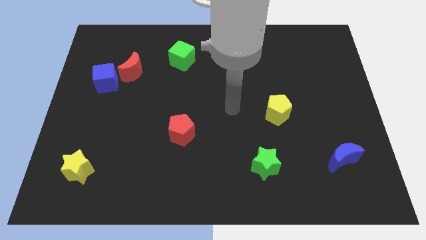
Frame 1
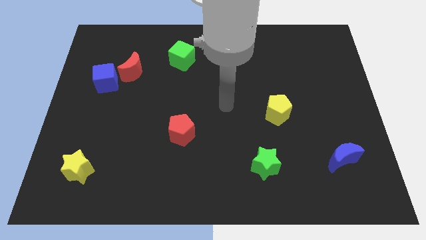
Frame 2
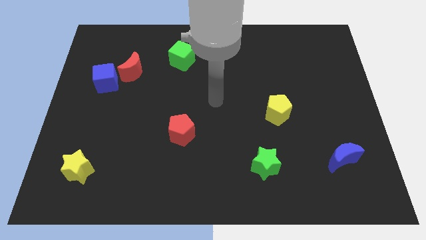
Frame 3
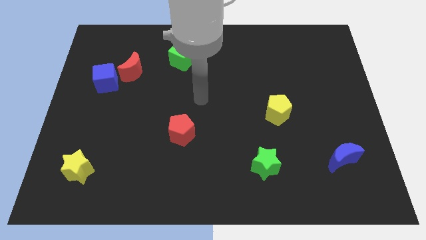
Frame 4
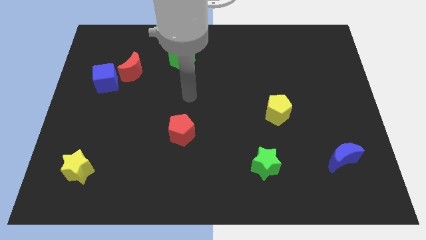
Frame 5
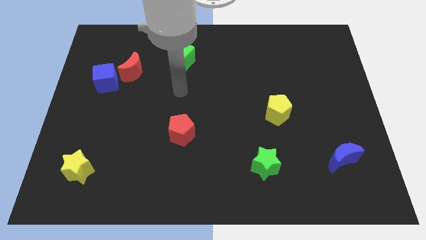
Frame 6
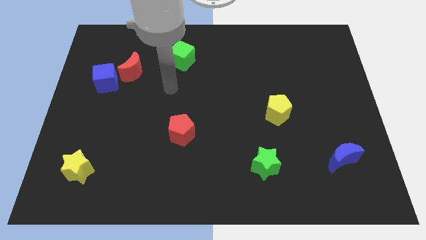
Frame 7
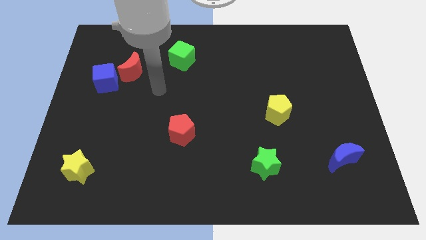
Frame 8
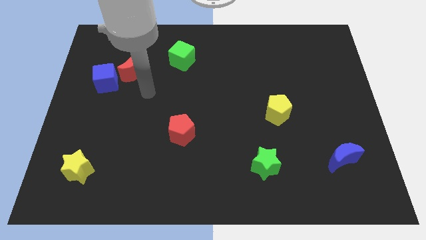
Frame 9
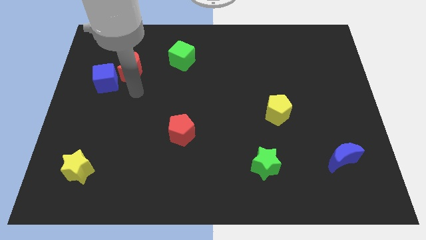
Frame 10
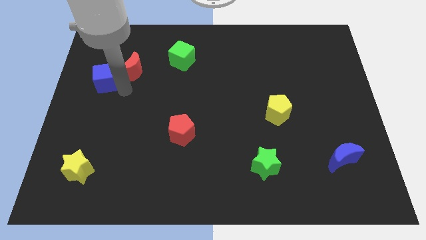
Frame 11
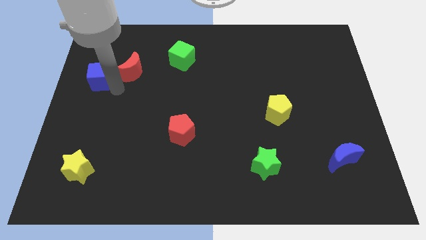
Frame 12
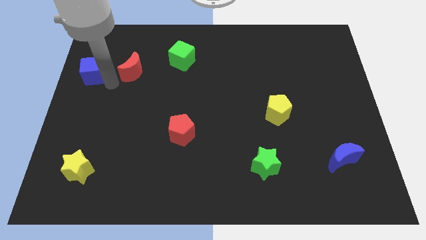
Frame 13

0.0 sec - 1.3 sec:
move the red moon away from the blue cube

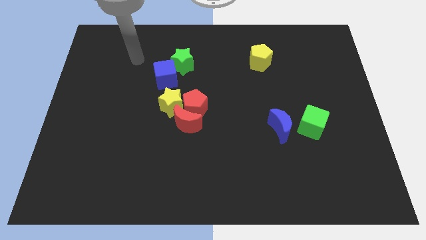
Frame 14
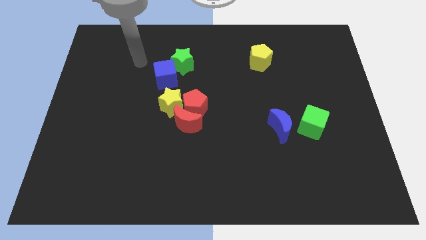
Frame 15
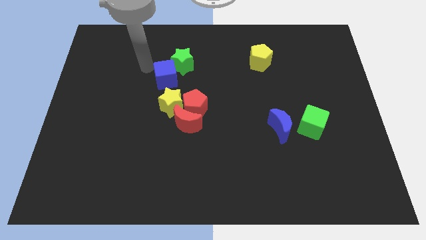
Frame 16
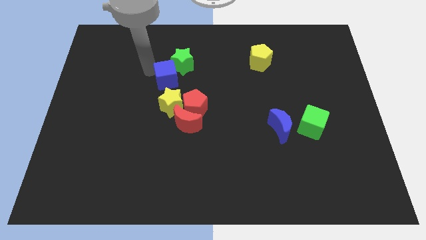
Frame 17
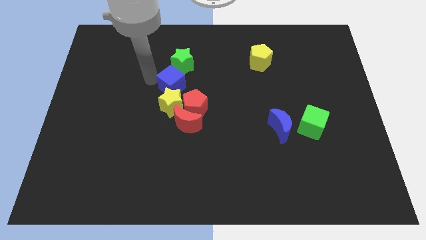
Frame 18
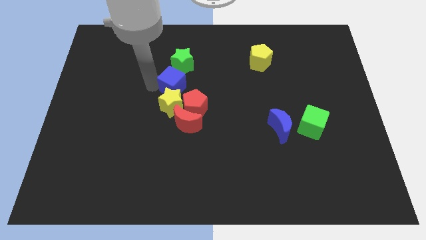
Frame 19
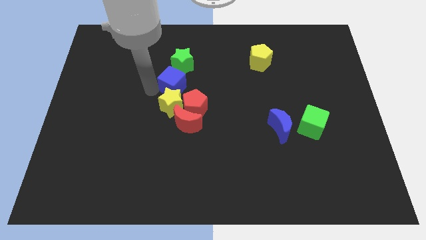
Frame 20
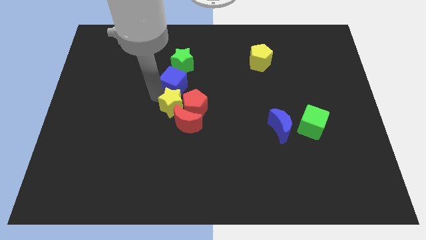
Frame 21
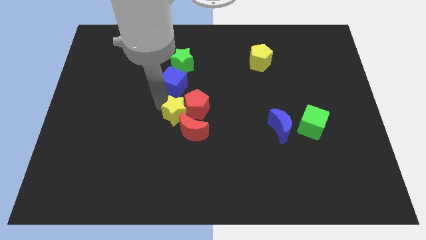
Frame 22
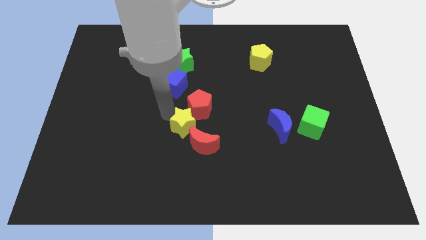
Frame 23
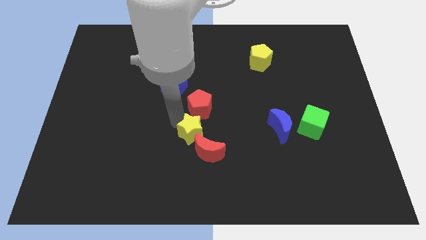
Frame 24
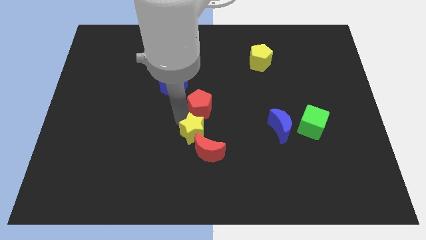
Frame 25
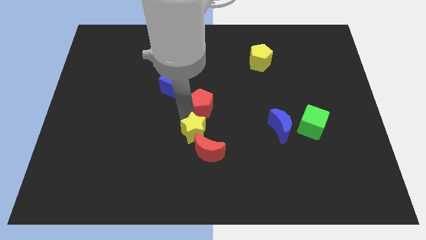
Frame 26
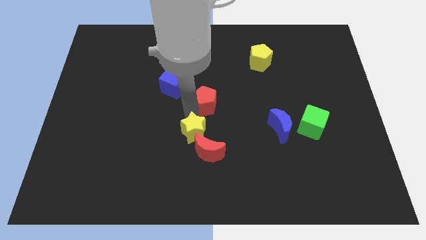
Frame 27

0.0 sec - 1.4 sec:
pull the red pentagon apart from the red moon and yellow star

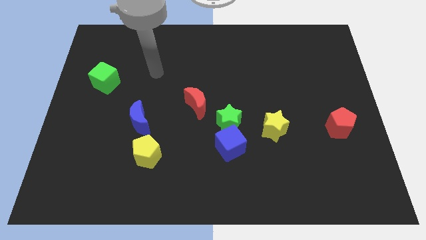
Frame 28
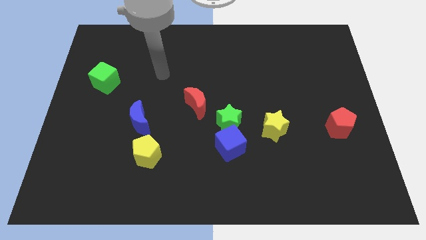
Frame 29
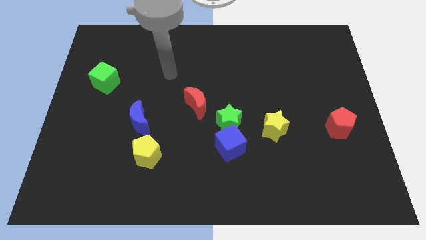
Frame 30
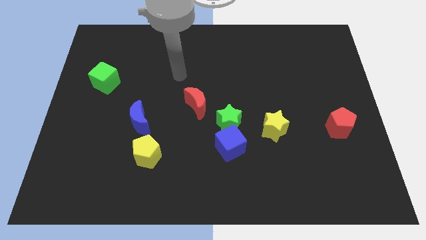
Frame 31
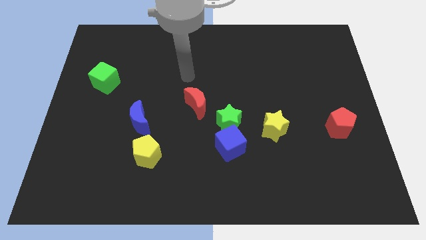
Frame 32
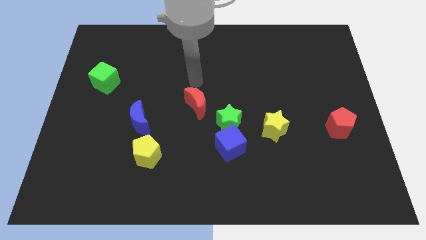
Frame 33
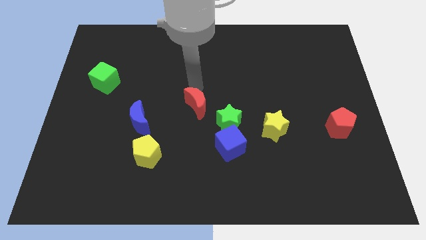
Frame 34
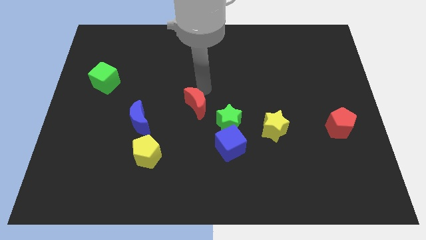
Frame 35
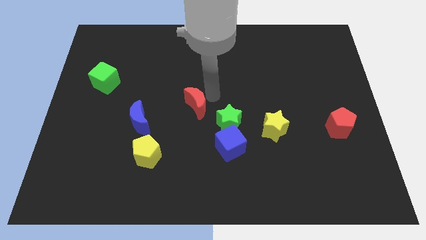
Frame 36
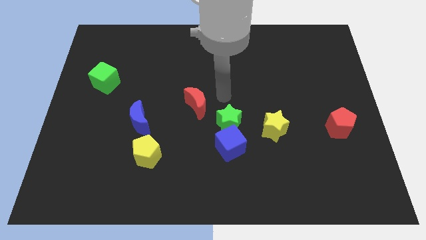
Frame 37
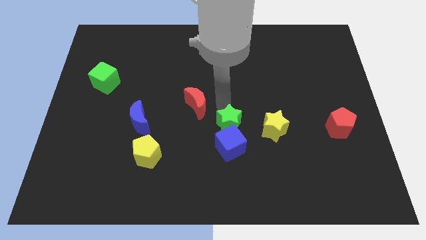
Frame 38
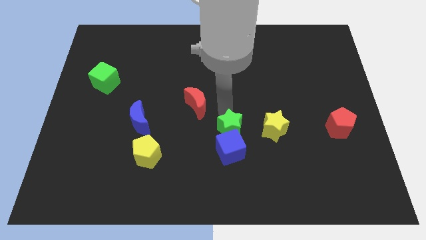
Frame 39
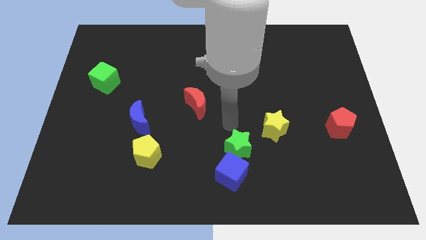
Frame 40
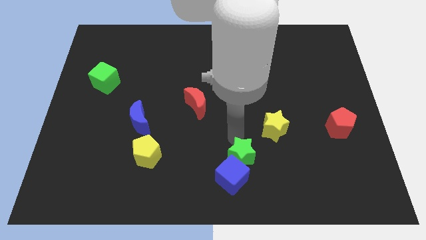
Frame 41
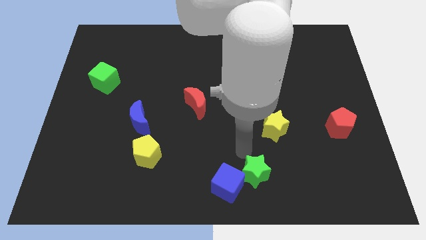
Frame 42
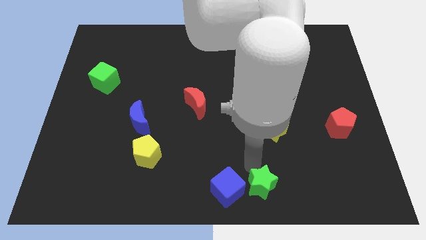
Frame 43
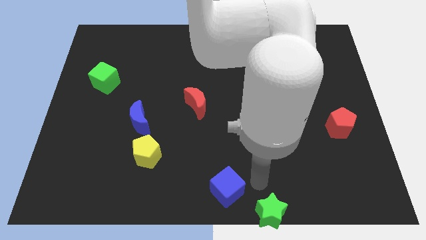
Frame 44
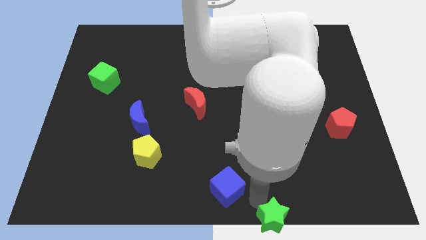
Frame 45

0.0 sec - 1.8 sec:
separate the blue cube from the green star

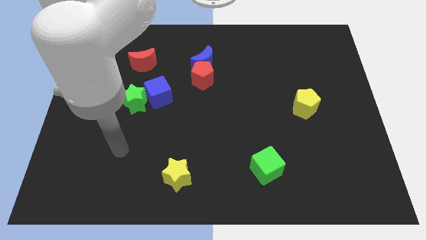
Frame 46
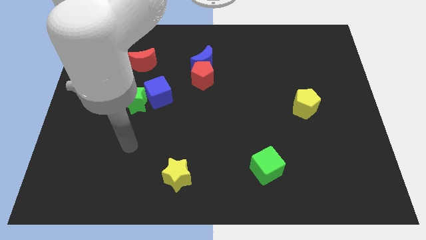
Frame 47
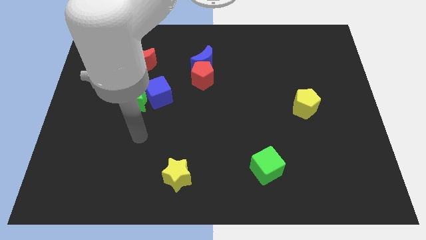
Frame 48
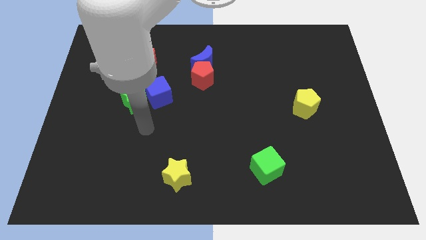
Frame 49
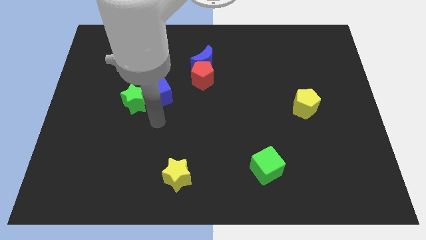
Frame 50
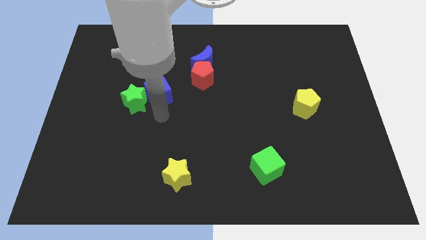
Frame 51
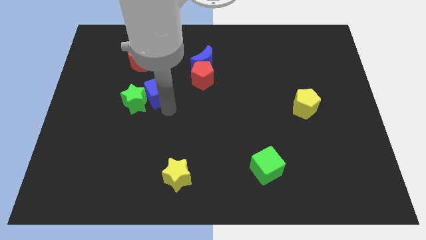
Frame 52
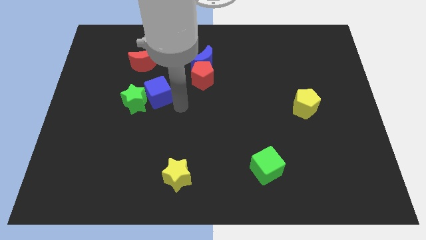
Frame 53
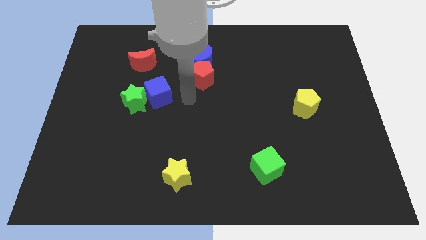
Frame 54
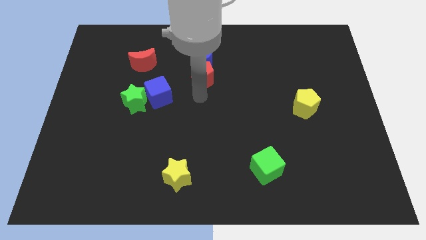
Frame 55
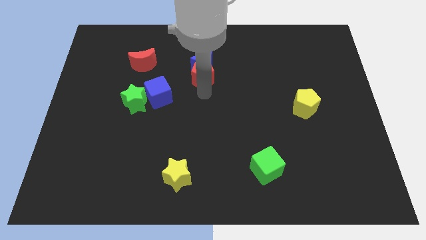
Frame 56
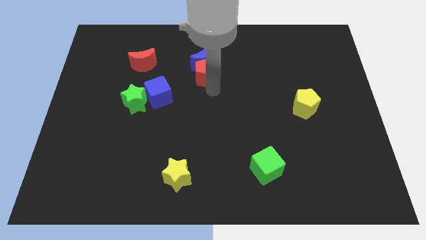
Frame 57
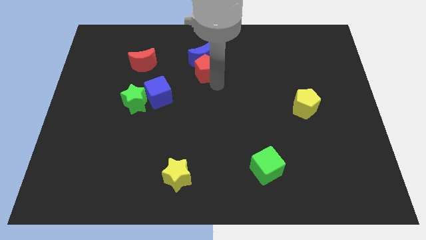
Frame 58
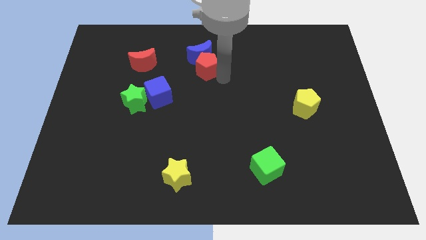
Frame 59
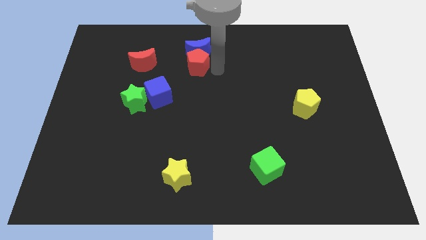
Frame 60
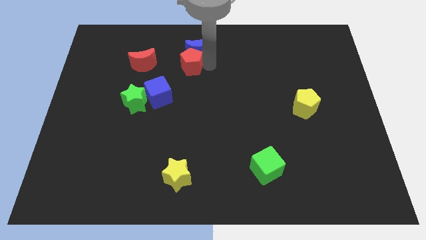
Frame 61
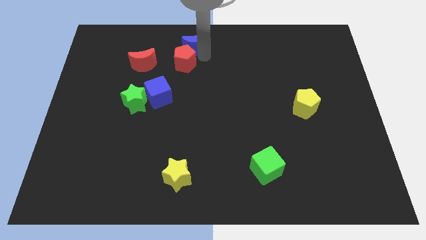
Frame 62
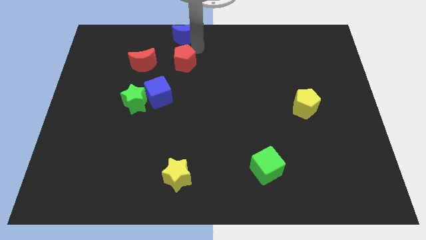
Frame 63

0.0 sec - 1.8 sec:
pull the red pentagon apart from the blue moon

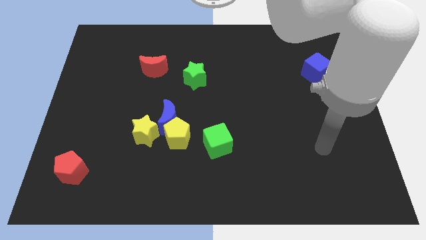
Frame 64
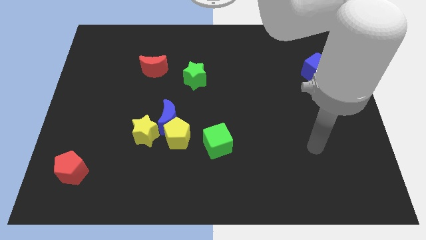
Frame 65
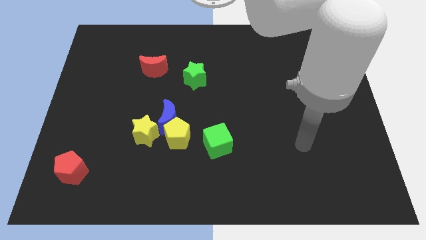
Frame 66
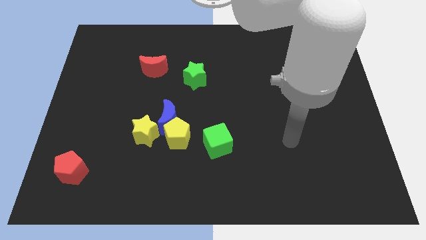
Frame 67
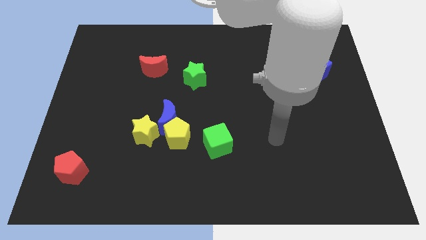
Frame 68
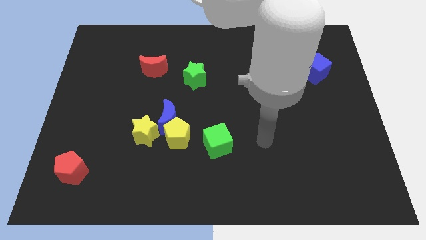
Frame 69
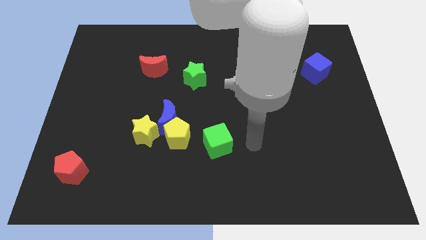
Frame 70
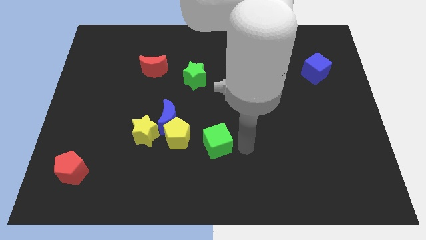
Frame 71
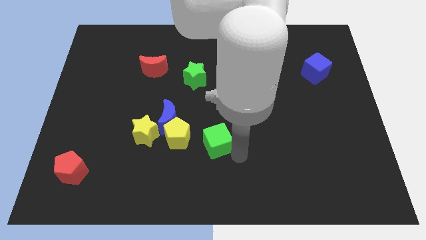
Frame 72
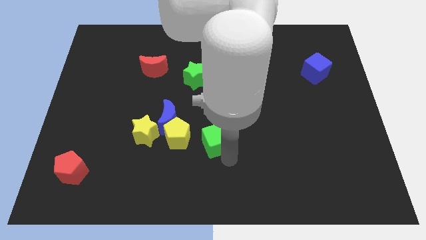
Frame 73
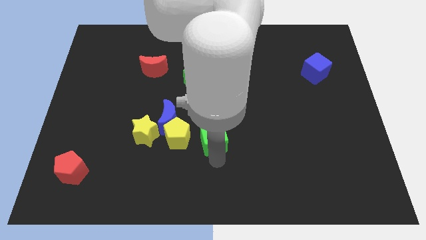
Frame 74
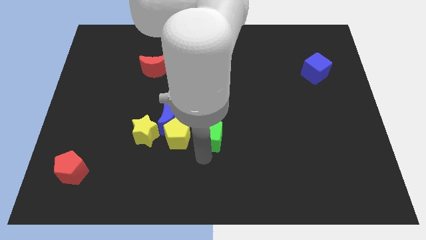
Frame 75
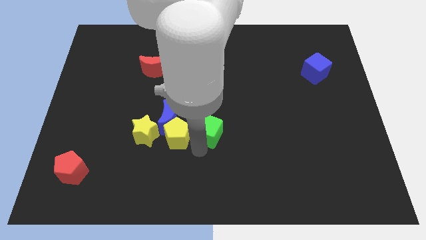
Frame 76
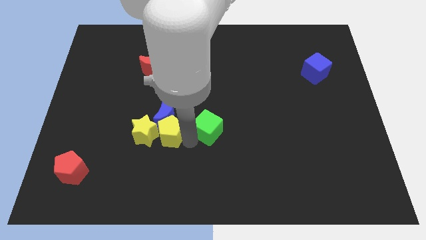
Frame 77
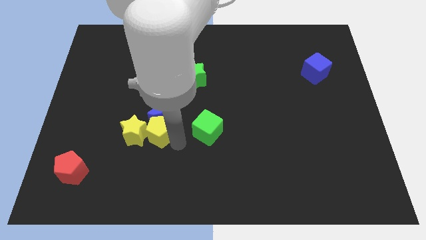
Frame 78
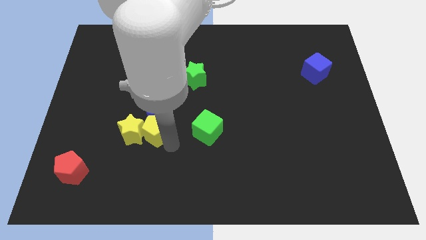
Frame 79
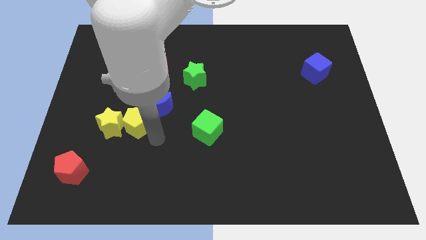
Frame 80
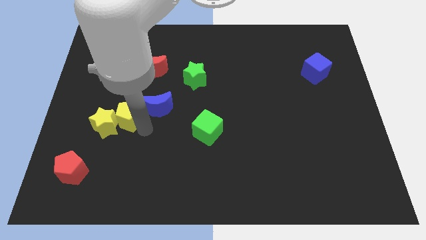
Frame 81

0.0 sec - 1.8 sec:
move the blue moon away from the yellow pentagon and yellow star

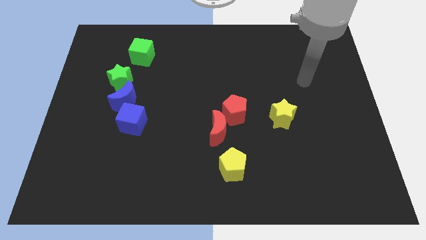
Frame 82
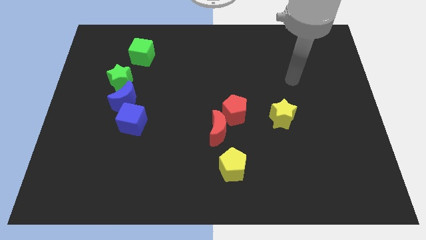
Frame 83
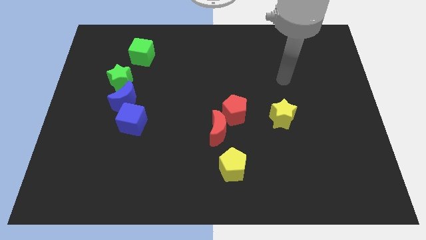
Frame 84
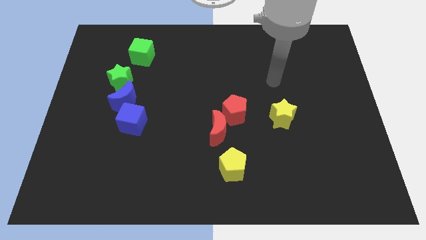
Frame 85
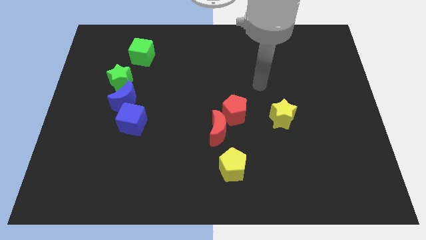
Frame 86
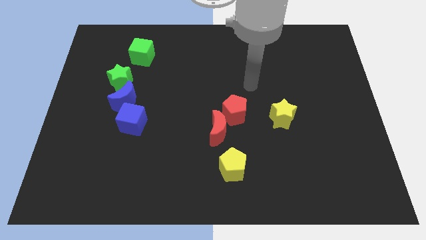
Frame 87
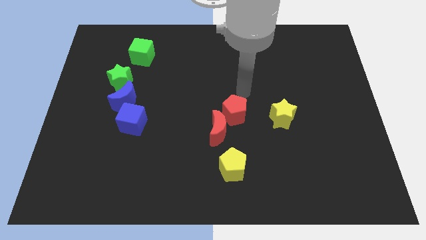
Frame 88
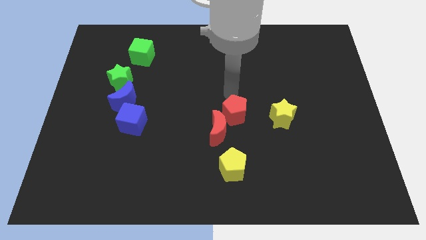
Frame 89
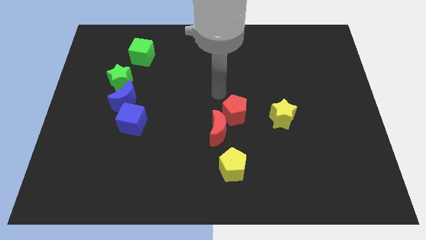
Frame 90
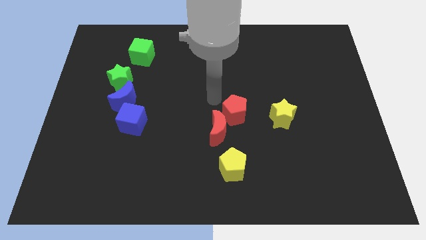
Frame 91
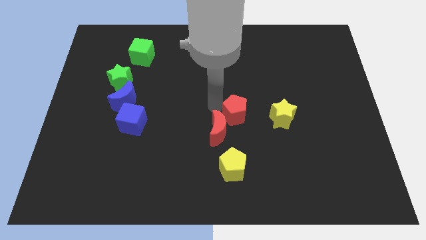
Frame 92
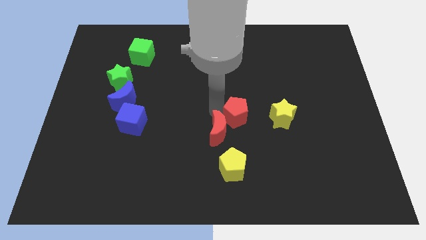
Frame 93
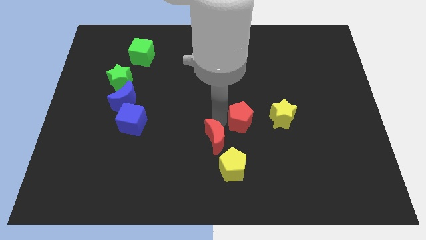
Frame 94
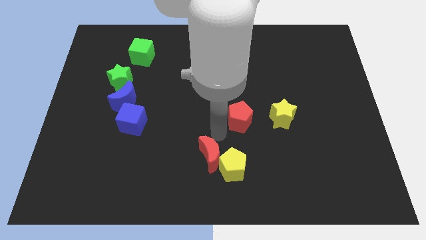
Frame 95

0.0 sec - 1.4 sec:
move the red pentagon away from the red moon

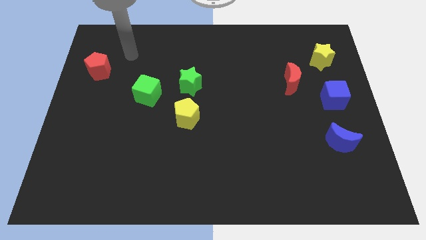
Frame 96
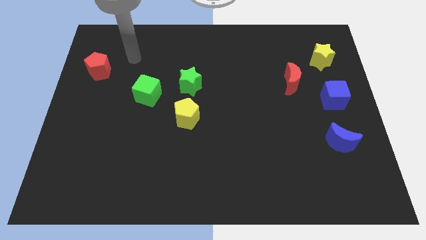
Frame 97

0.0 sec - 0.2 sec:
move the green star away from the yellow pentagon
